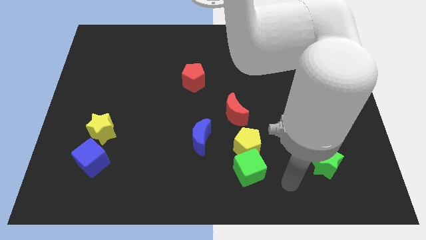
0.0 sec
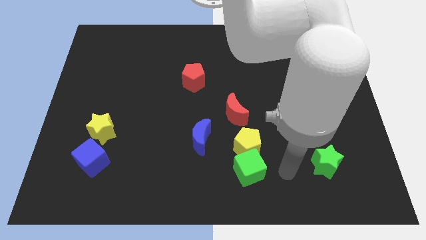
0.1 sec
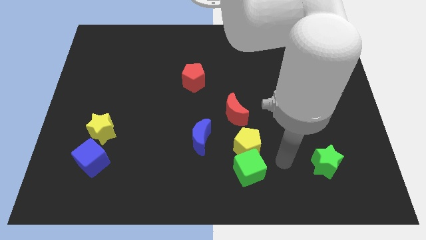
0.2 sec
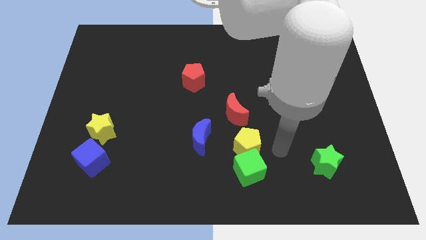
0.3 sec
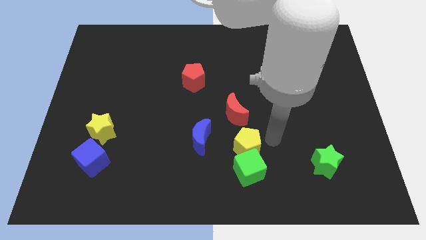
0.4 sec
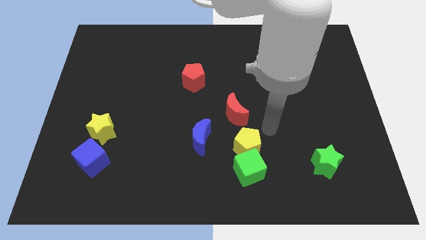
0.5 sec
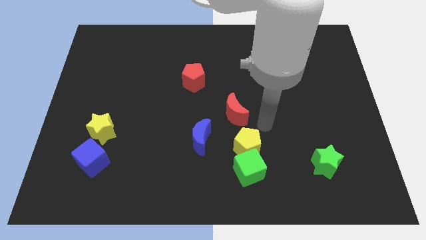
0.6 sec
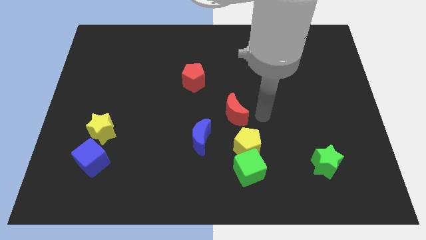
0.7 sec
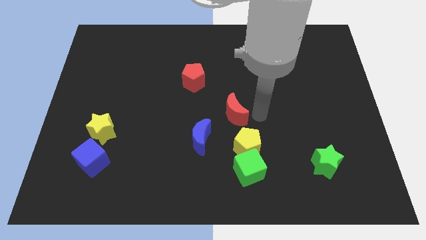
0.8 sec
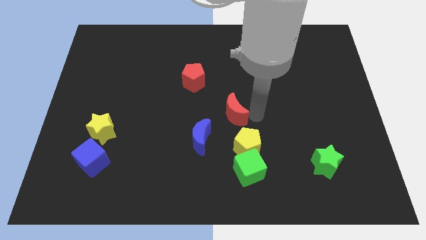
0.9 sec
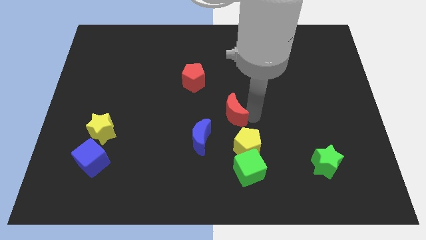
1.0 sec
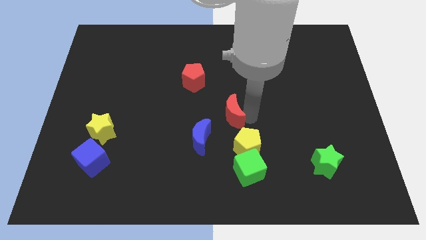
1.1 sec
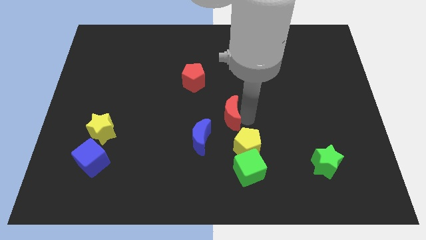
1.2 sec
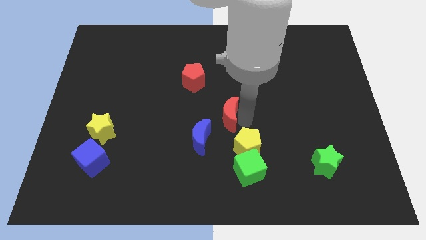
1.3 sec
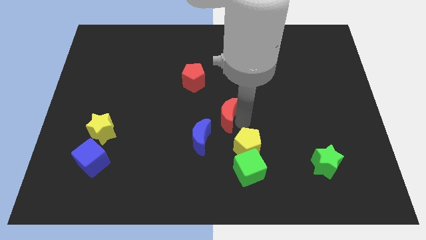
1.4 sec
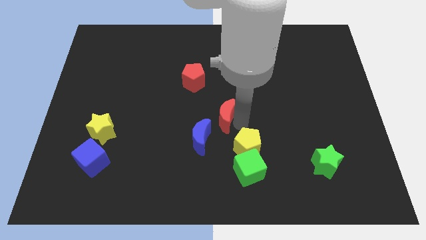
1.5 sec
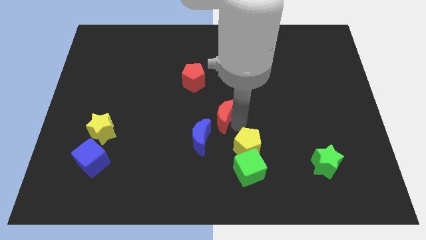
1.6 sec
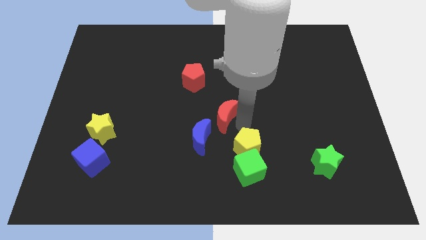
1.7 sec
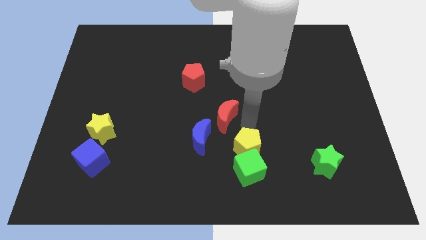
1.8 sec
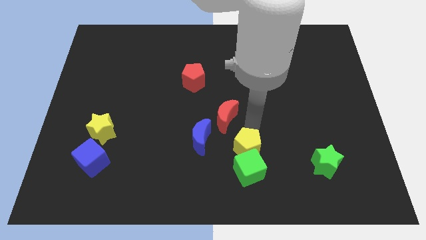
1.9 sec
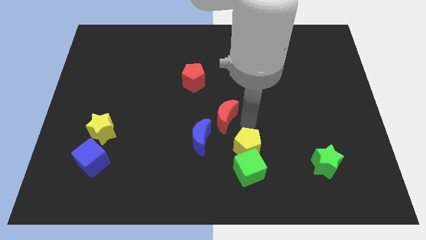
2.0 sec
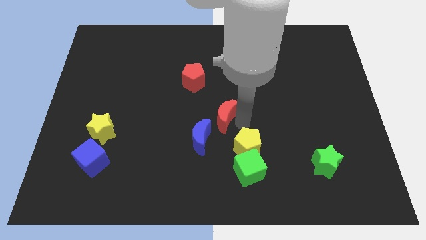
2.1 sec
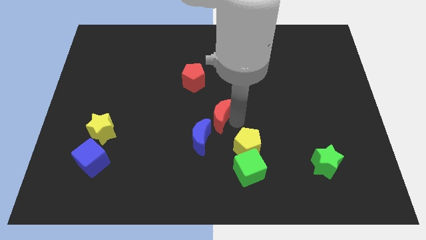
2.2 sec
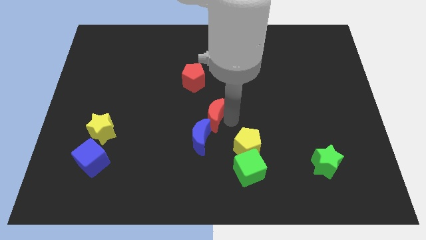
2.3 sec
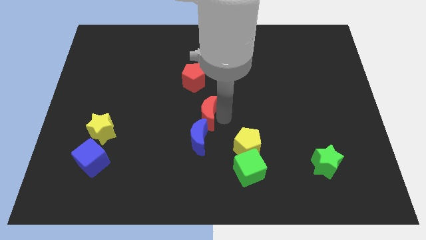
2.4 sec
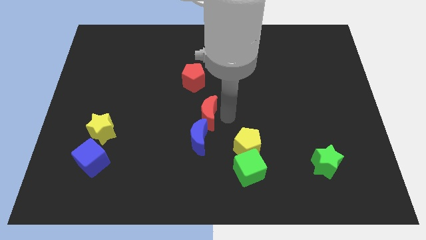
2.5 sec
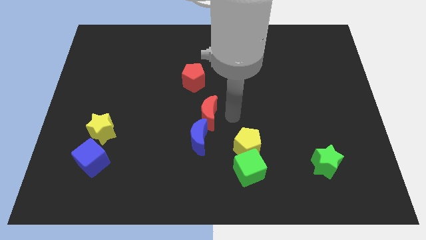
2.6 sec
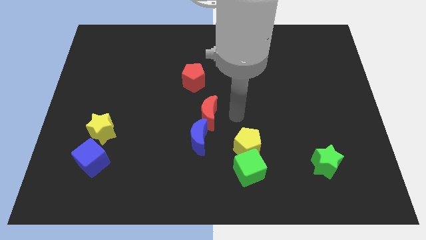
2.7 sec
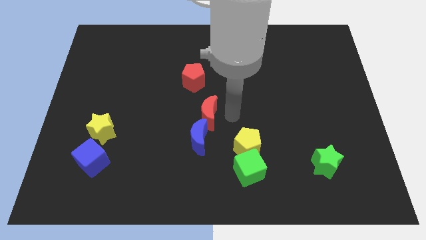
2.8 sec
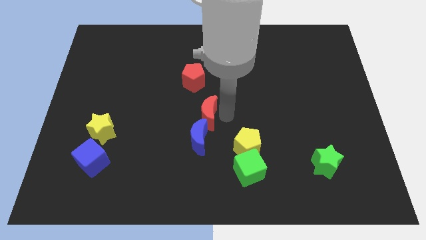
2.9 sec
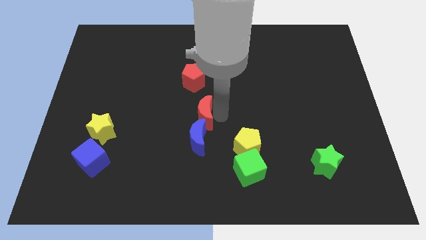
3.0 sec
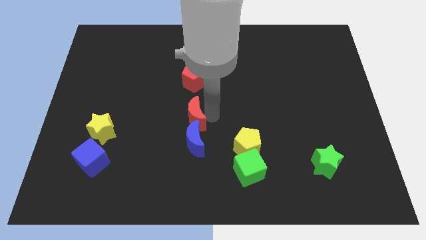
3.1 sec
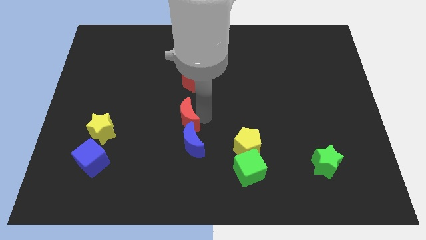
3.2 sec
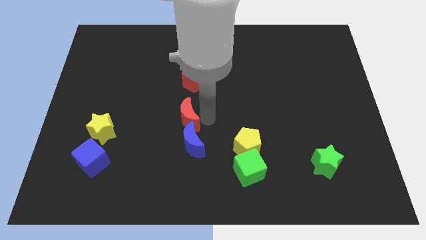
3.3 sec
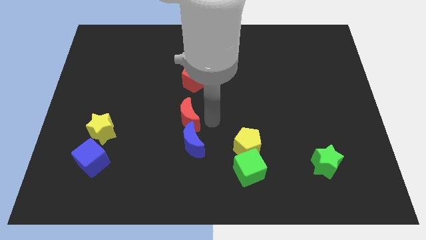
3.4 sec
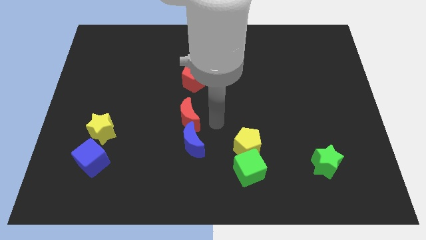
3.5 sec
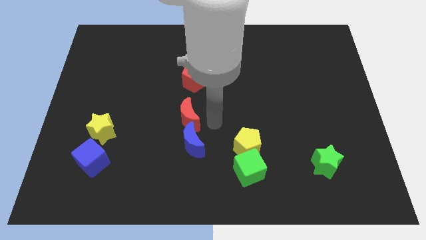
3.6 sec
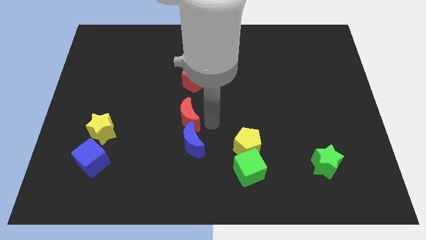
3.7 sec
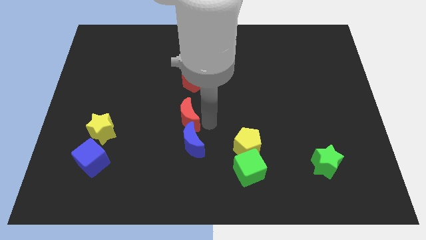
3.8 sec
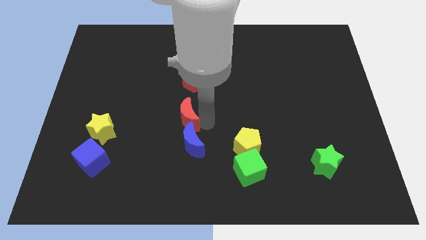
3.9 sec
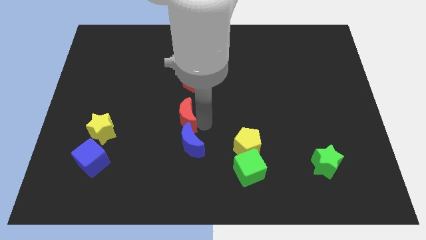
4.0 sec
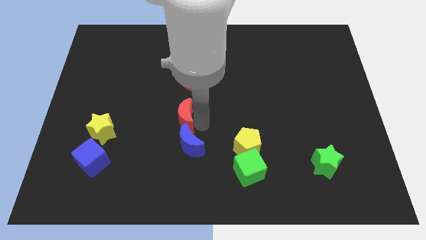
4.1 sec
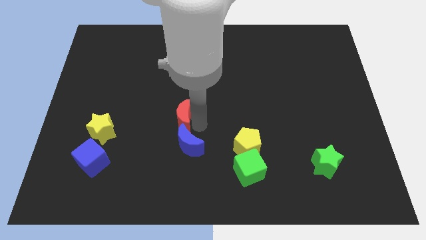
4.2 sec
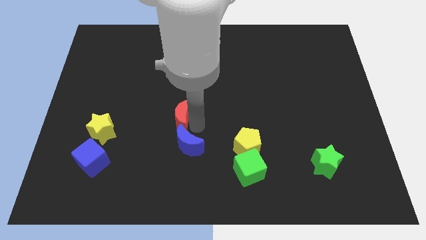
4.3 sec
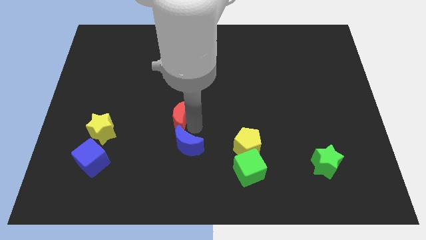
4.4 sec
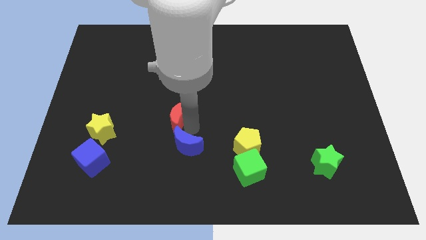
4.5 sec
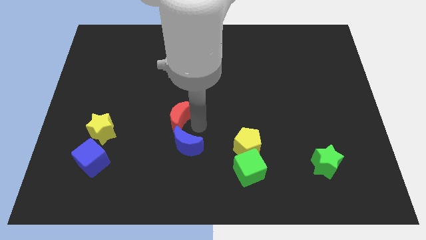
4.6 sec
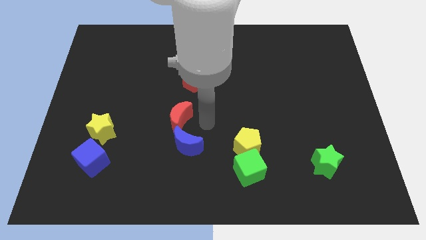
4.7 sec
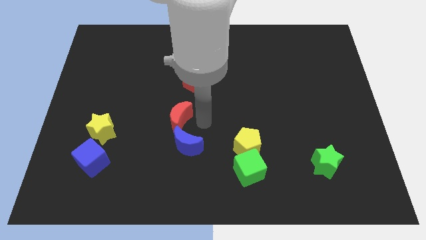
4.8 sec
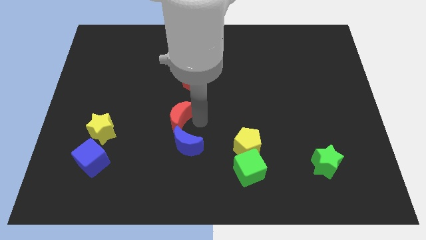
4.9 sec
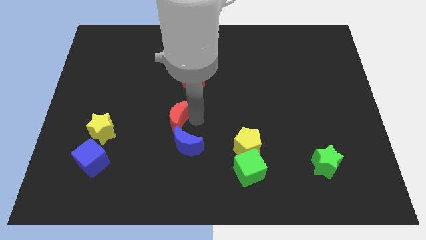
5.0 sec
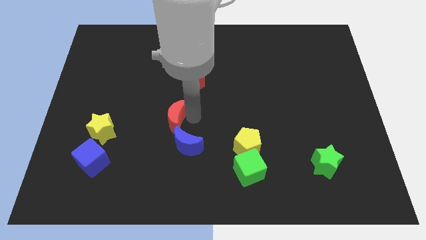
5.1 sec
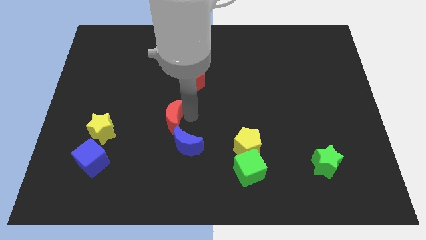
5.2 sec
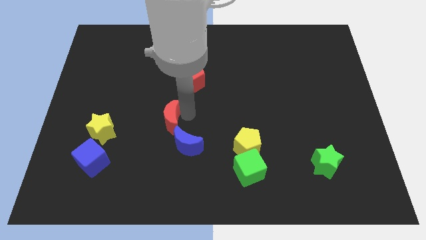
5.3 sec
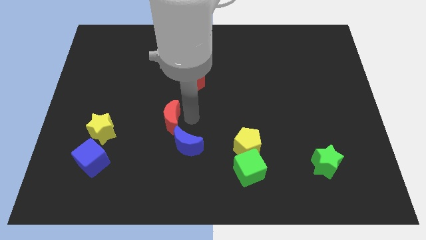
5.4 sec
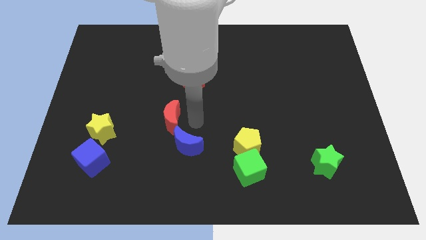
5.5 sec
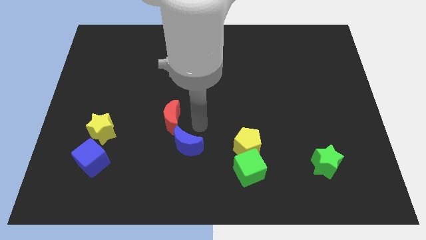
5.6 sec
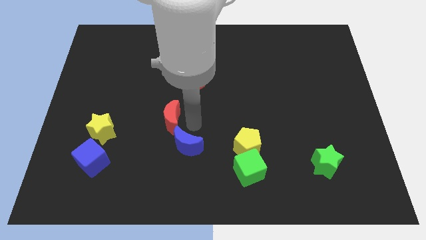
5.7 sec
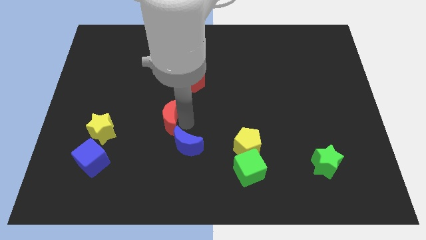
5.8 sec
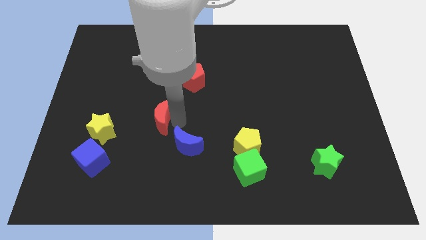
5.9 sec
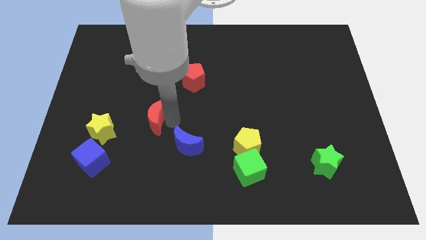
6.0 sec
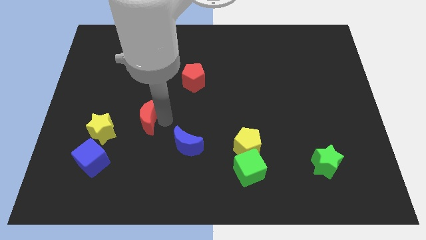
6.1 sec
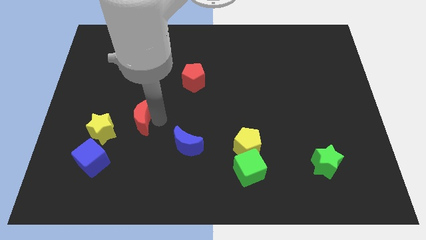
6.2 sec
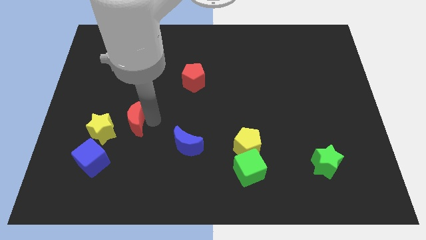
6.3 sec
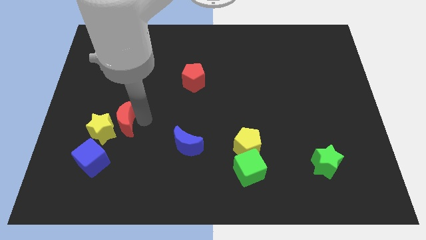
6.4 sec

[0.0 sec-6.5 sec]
put the red moon next to the yellow star

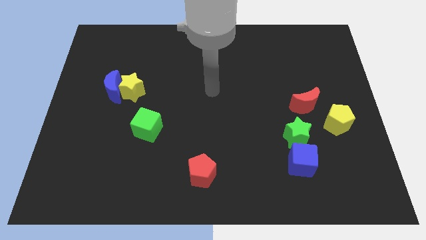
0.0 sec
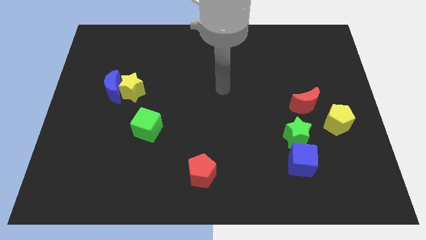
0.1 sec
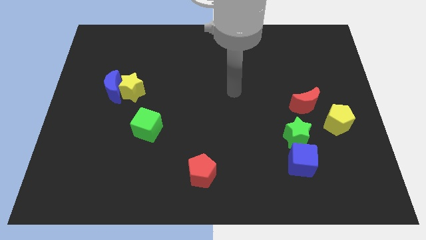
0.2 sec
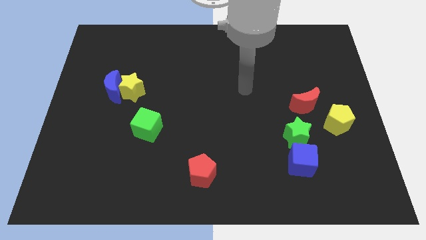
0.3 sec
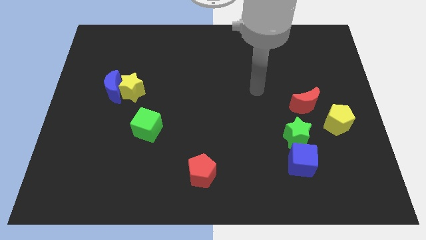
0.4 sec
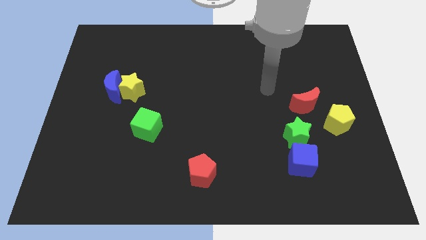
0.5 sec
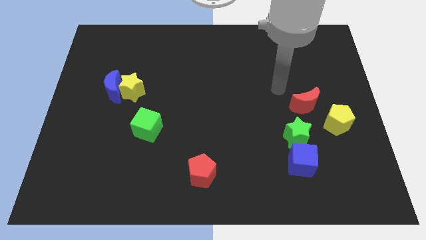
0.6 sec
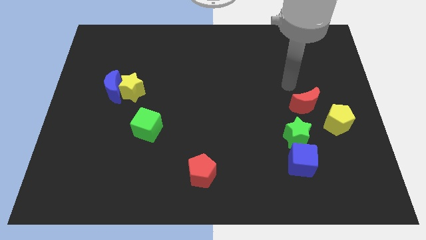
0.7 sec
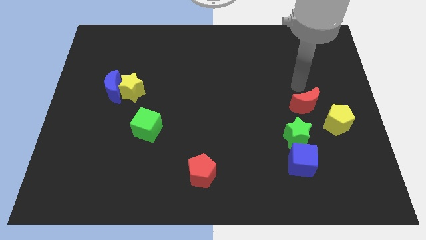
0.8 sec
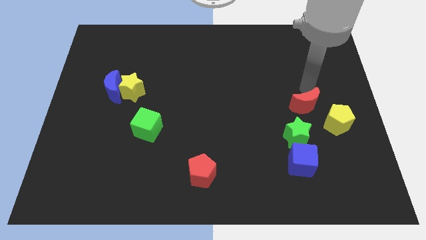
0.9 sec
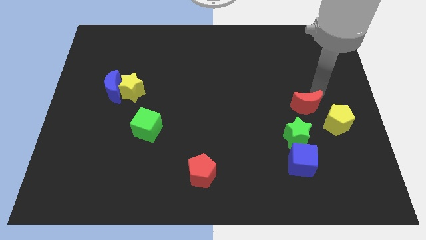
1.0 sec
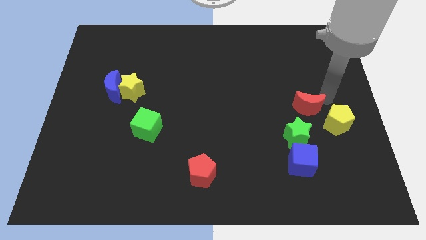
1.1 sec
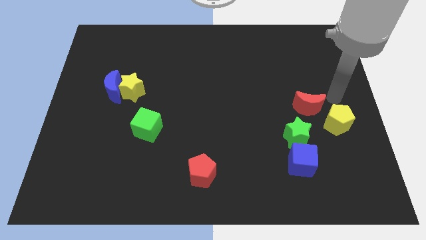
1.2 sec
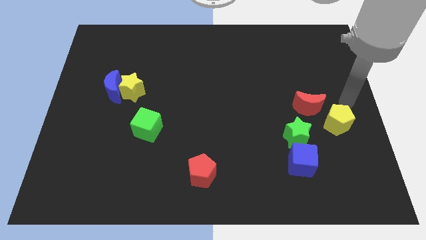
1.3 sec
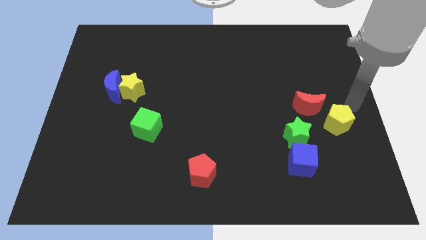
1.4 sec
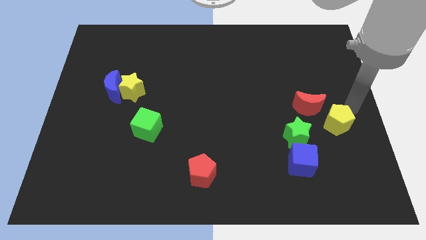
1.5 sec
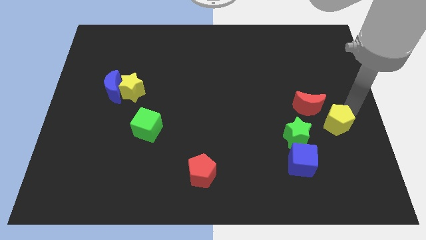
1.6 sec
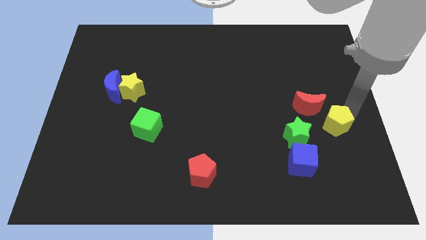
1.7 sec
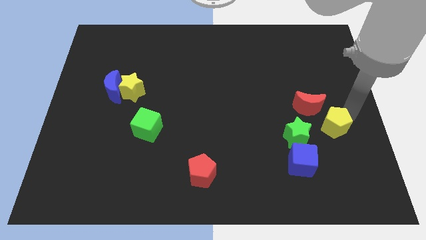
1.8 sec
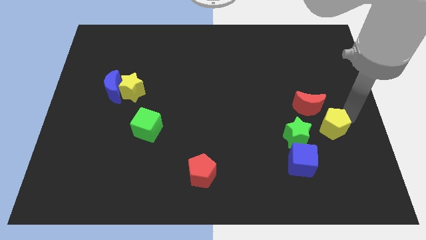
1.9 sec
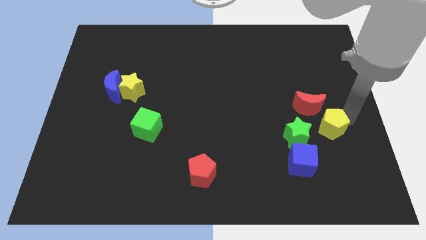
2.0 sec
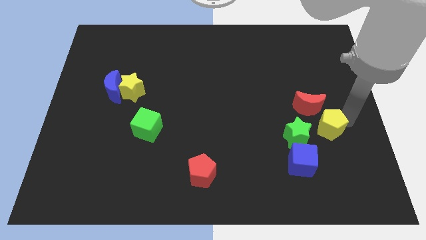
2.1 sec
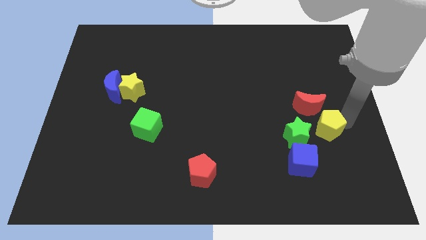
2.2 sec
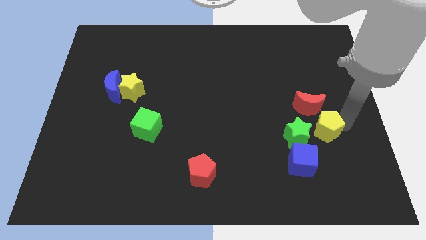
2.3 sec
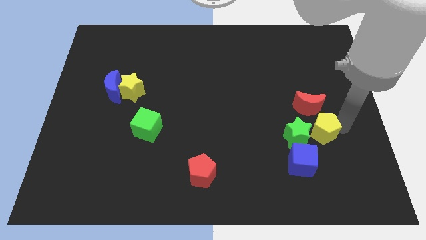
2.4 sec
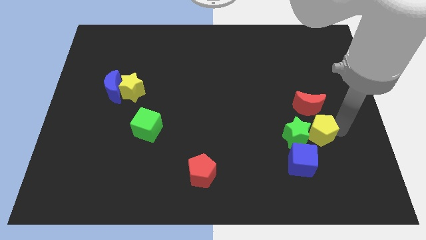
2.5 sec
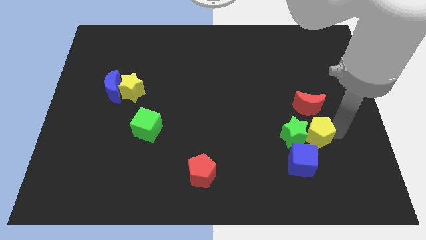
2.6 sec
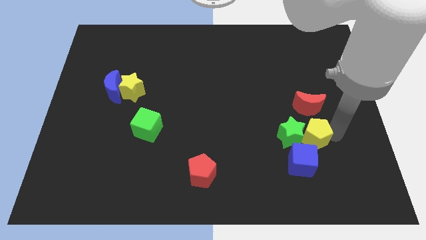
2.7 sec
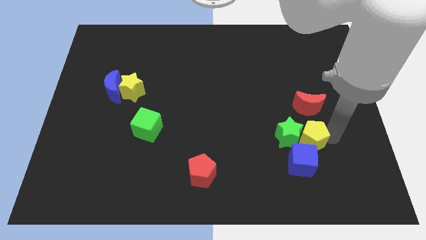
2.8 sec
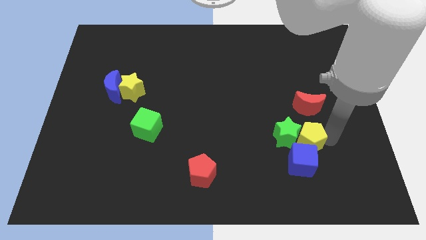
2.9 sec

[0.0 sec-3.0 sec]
put the yellow pentagon next to the blue cube
